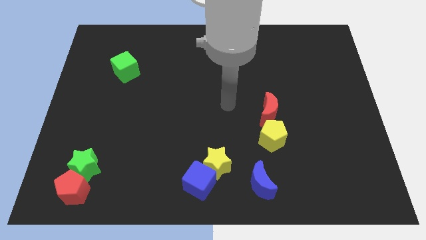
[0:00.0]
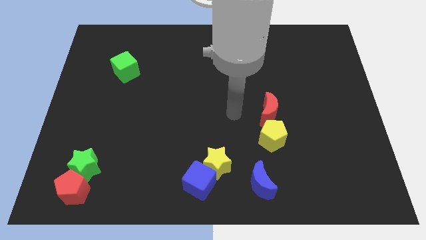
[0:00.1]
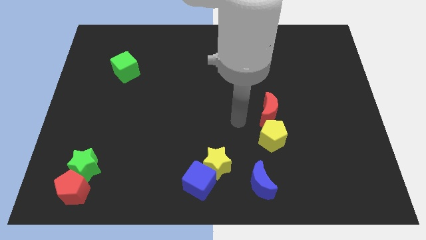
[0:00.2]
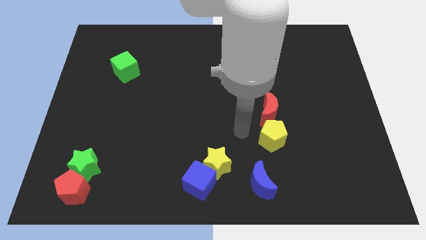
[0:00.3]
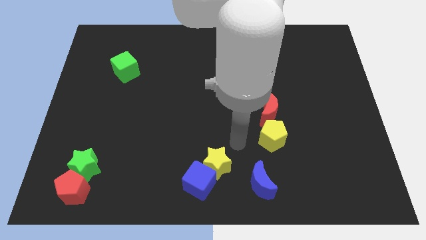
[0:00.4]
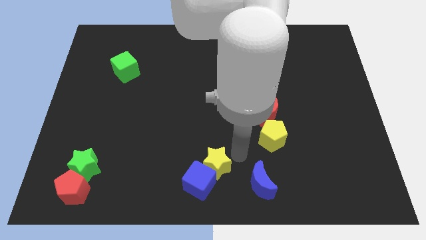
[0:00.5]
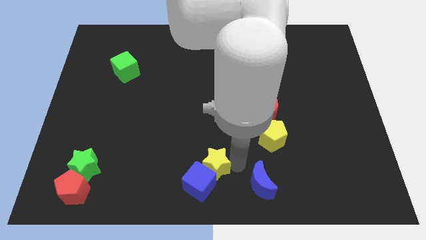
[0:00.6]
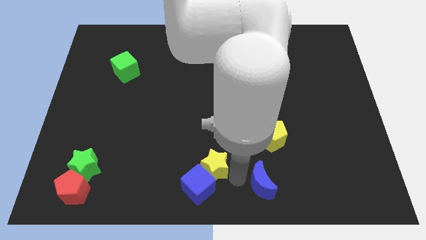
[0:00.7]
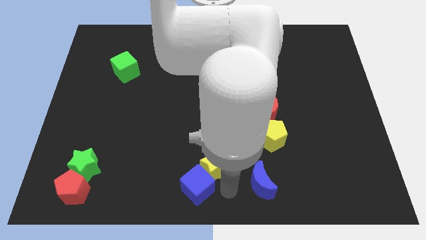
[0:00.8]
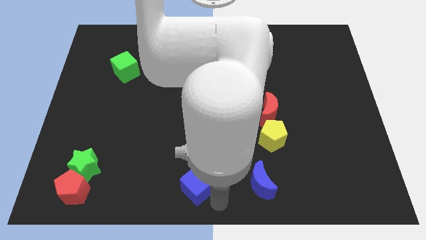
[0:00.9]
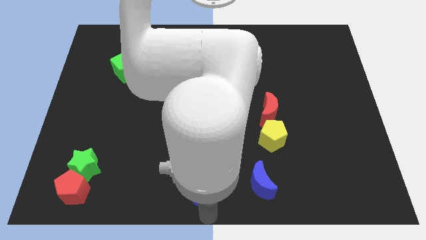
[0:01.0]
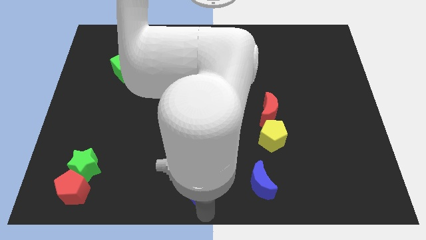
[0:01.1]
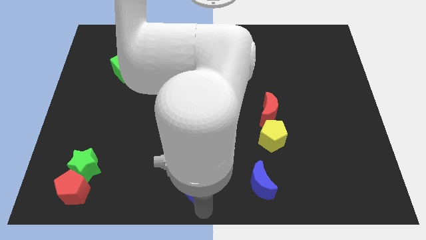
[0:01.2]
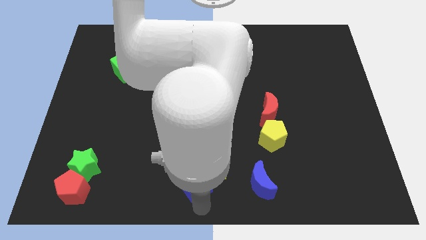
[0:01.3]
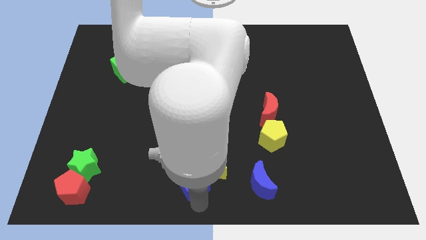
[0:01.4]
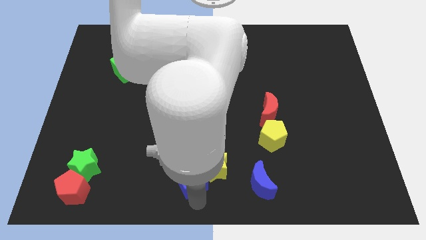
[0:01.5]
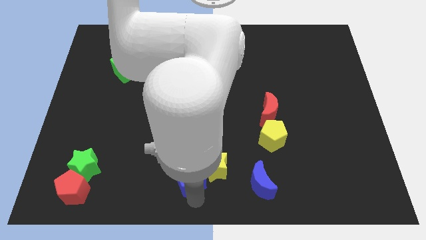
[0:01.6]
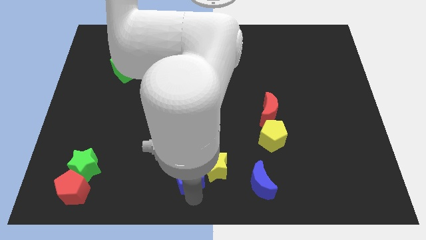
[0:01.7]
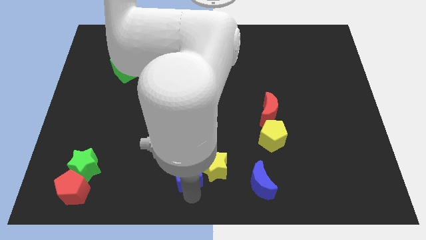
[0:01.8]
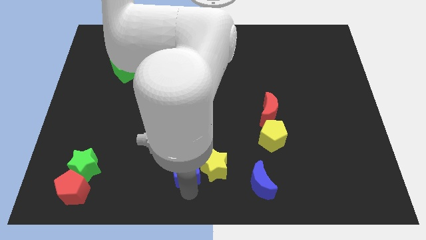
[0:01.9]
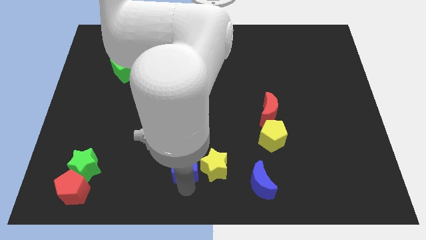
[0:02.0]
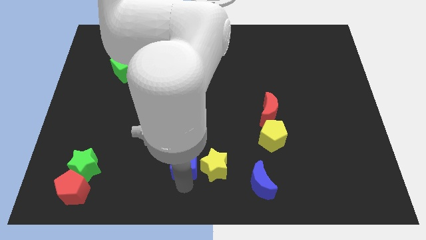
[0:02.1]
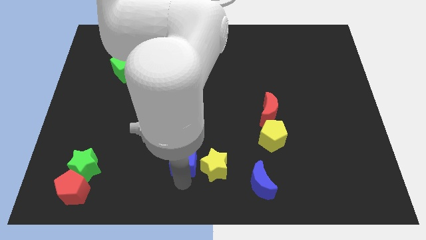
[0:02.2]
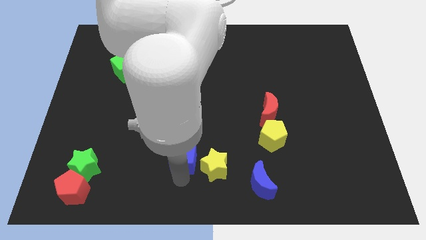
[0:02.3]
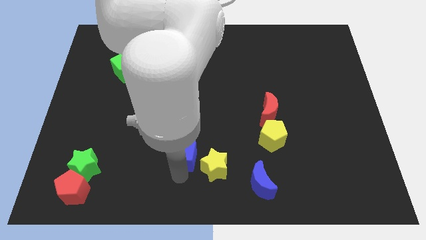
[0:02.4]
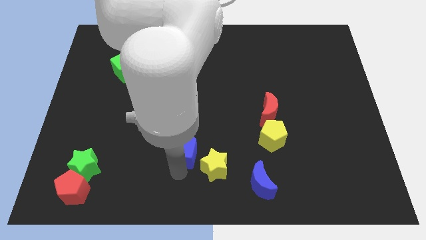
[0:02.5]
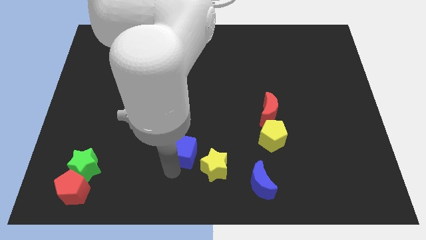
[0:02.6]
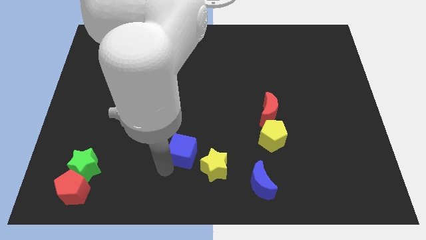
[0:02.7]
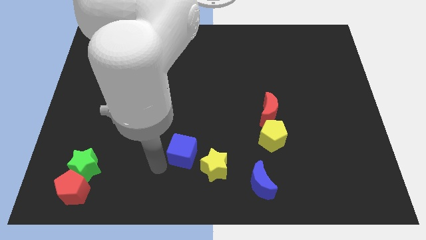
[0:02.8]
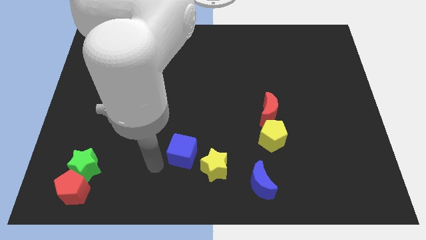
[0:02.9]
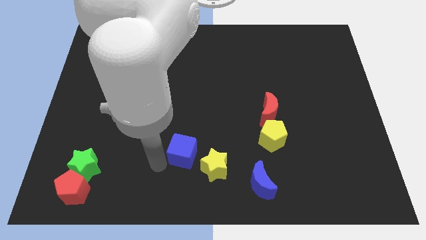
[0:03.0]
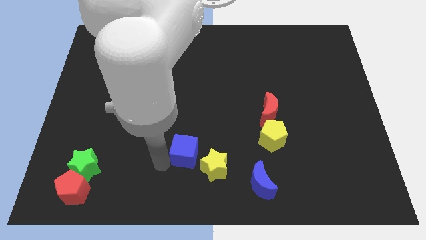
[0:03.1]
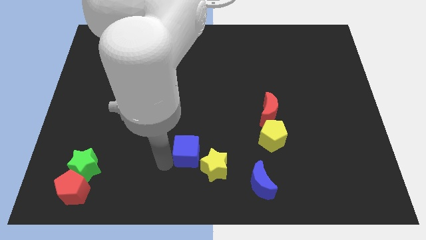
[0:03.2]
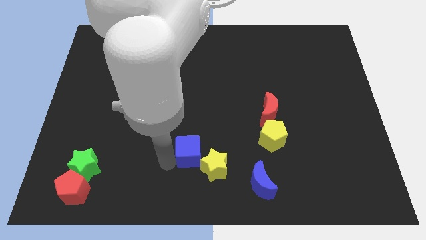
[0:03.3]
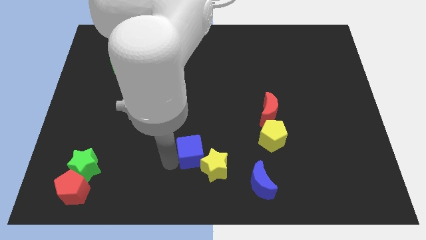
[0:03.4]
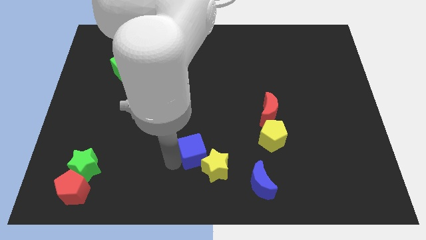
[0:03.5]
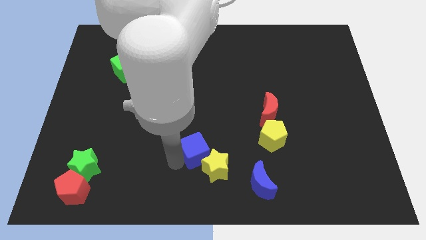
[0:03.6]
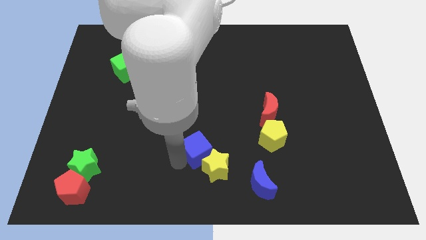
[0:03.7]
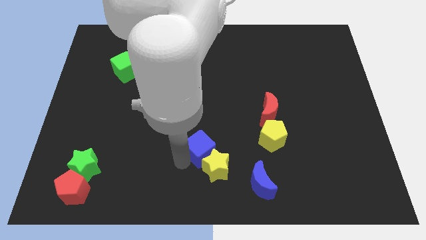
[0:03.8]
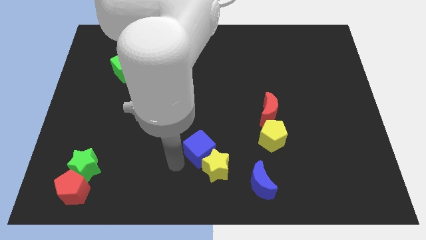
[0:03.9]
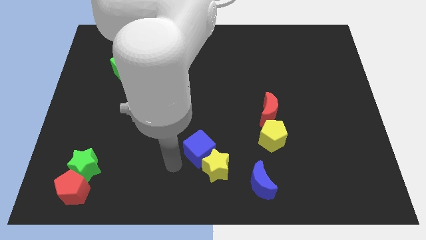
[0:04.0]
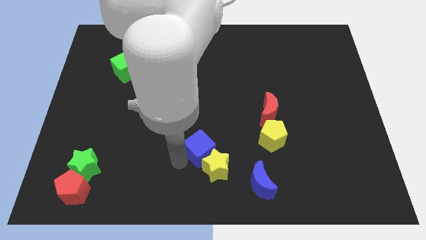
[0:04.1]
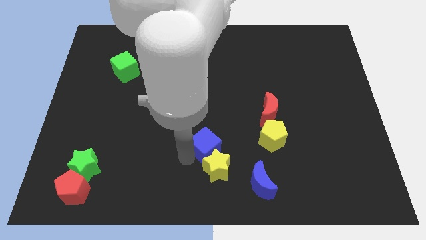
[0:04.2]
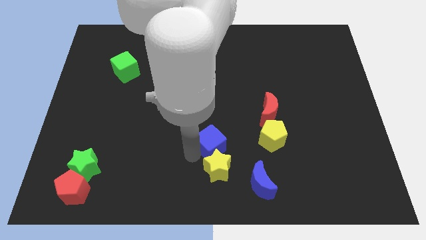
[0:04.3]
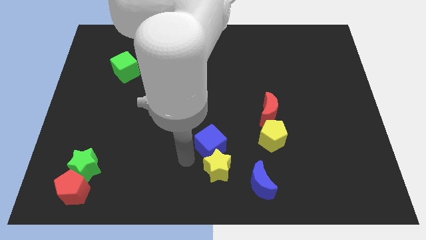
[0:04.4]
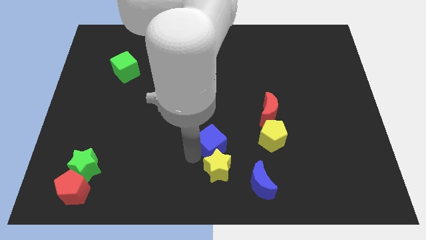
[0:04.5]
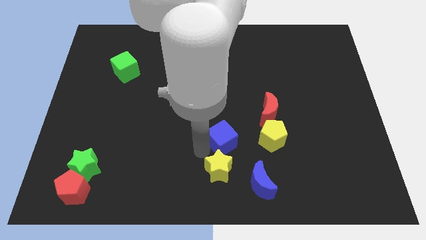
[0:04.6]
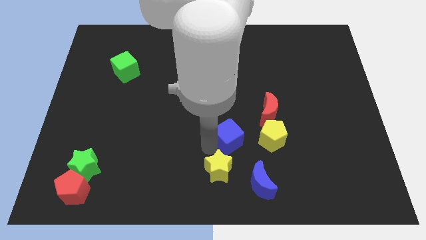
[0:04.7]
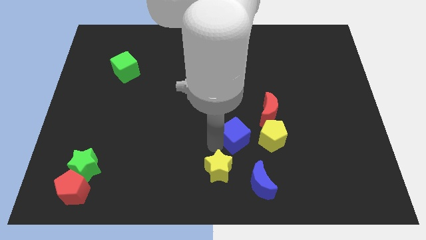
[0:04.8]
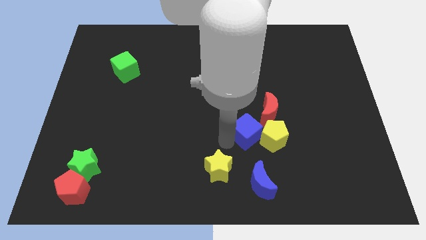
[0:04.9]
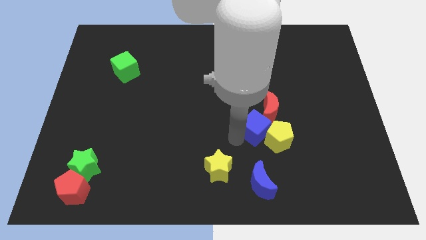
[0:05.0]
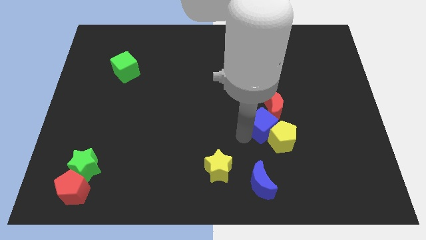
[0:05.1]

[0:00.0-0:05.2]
slide the blue cube close to the red moon

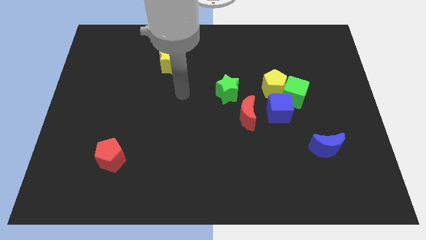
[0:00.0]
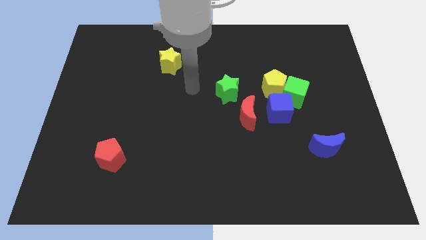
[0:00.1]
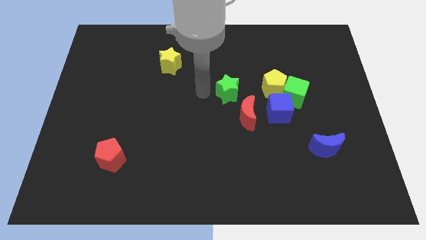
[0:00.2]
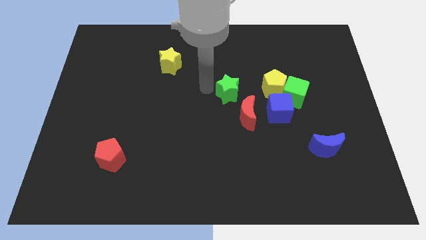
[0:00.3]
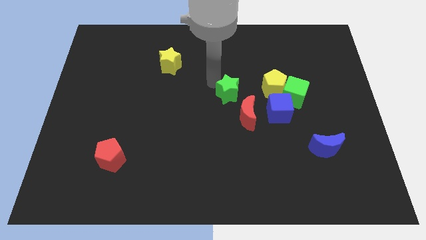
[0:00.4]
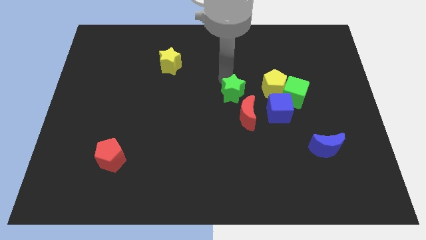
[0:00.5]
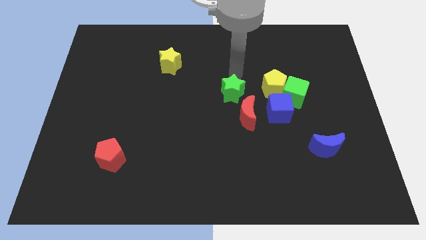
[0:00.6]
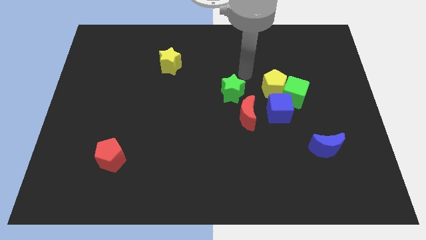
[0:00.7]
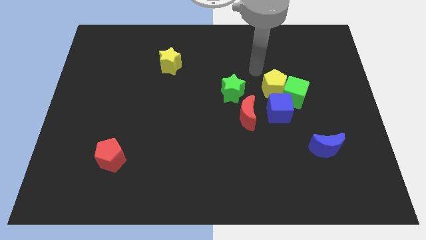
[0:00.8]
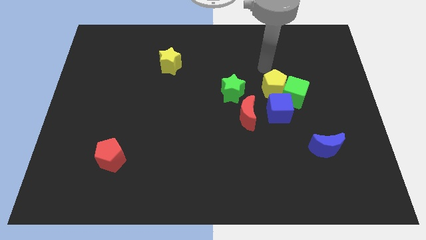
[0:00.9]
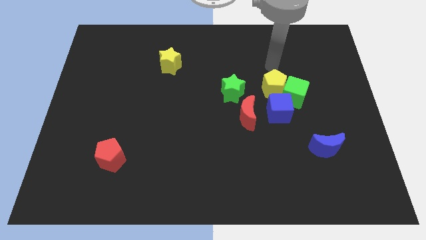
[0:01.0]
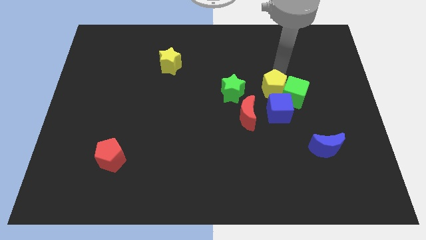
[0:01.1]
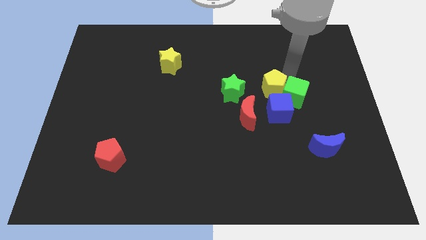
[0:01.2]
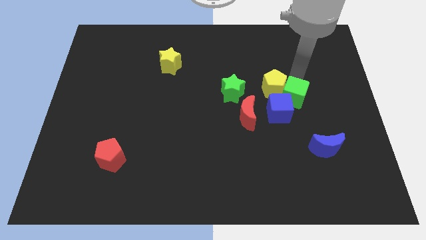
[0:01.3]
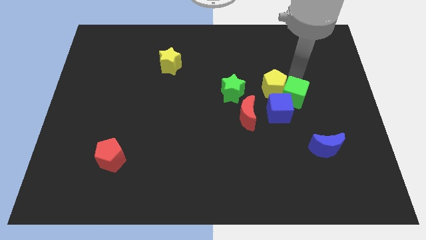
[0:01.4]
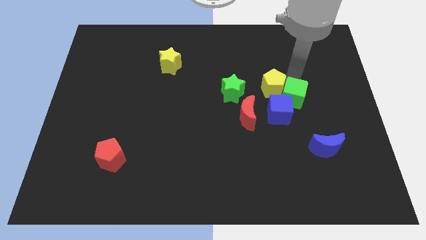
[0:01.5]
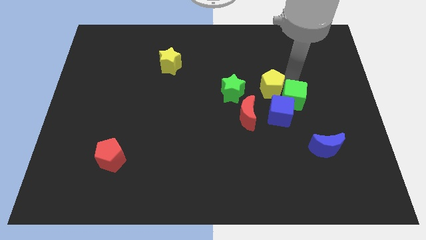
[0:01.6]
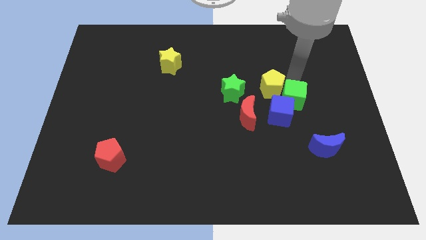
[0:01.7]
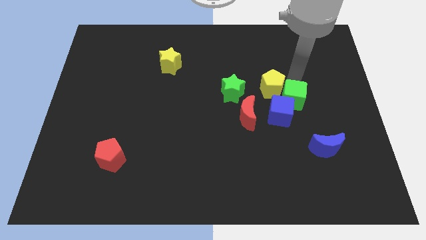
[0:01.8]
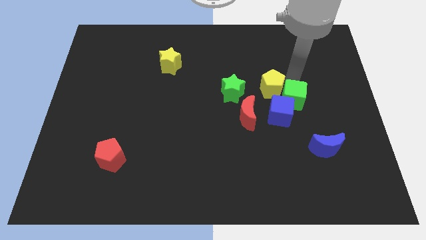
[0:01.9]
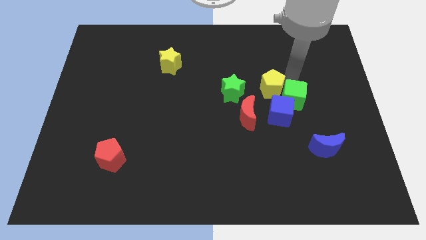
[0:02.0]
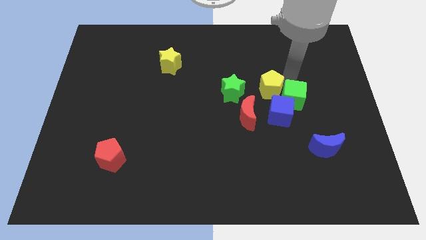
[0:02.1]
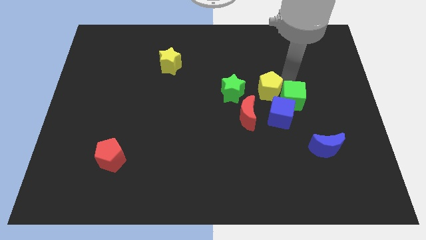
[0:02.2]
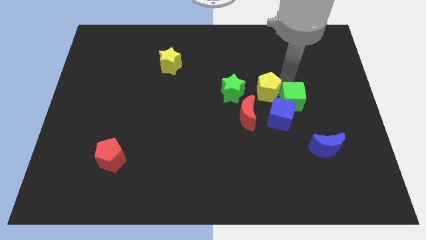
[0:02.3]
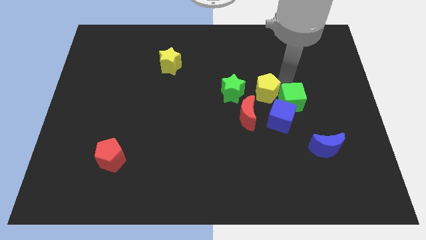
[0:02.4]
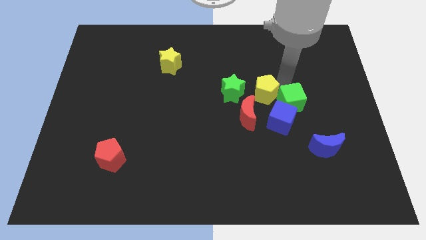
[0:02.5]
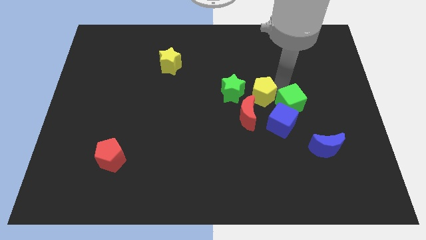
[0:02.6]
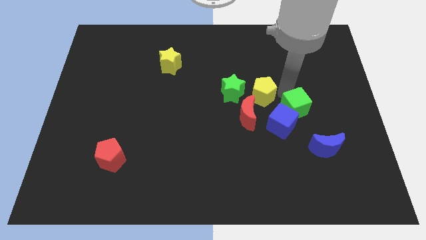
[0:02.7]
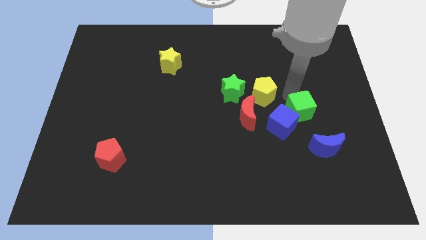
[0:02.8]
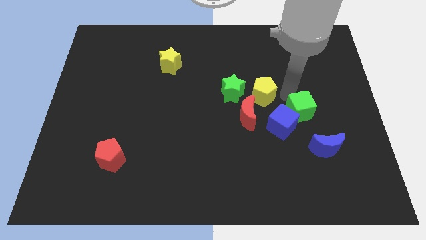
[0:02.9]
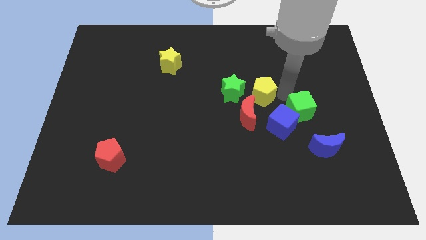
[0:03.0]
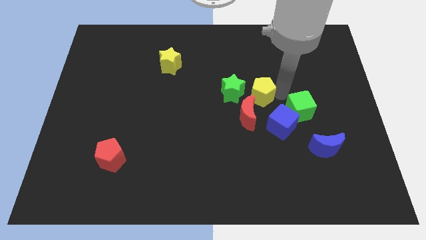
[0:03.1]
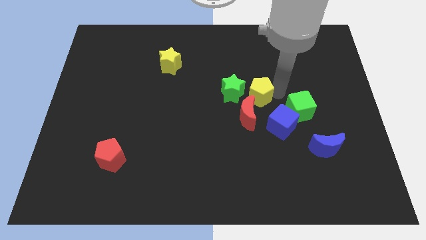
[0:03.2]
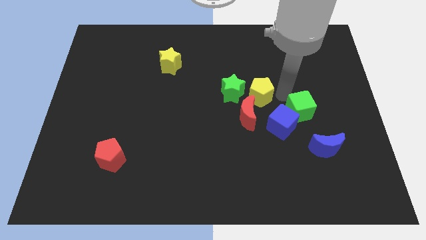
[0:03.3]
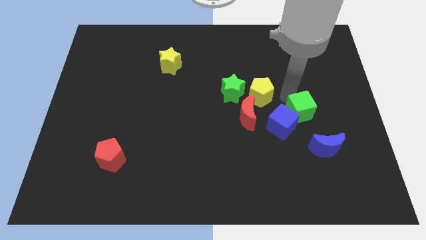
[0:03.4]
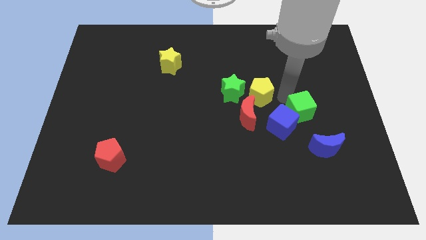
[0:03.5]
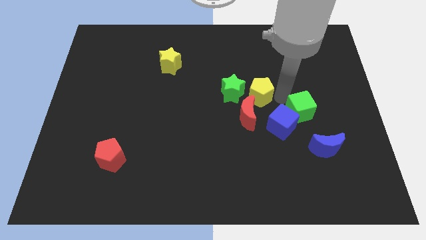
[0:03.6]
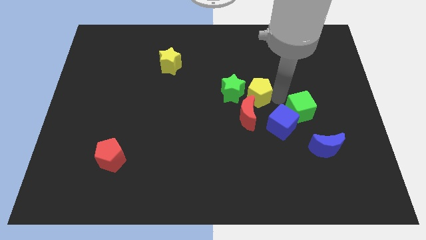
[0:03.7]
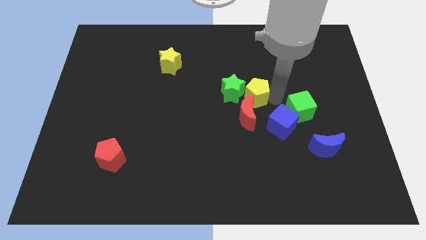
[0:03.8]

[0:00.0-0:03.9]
put the yellow pentagon towards the green star
